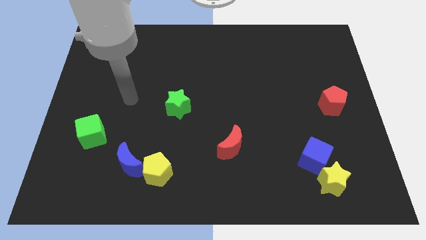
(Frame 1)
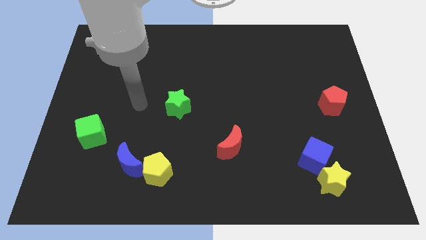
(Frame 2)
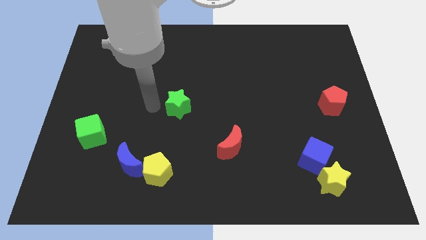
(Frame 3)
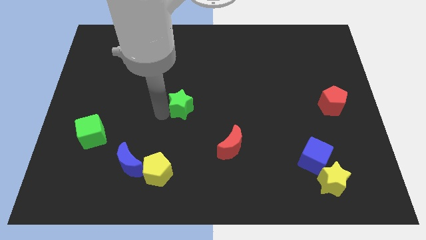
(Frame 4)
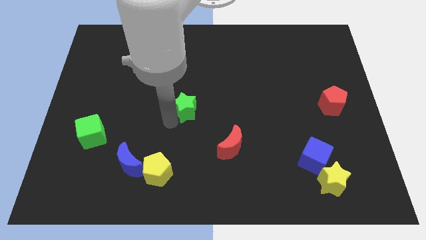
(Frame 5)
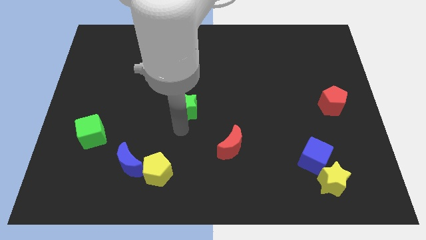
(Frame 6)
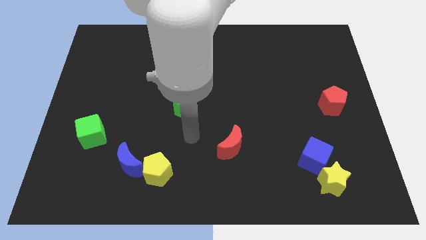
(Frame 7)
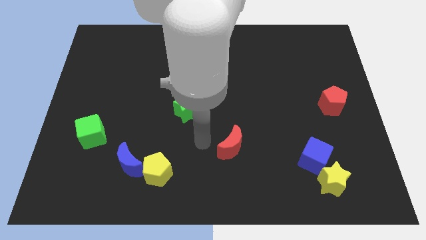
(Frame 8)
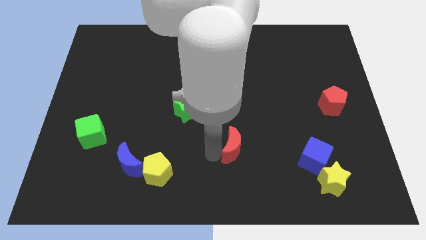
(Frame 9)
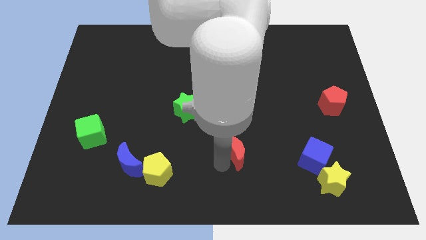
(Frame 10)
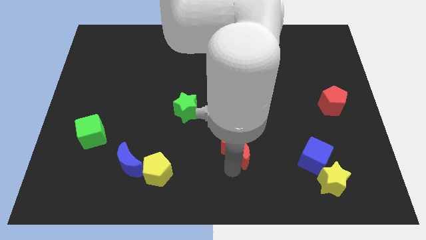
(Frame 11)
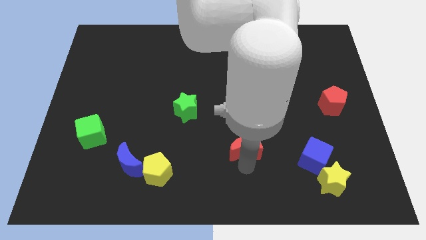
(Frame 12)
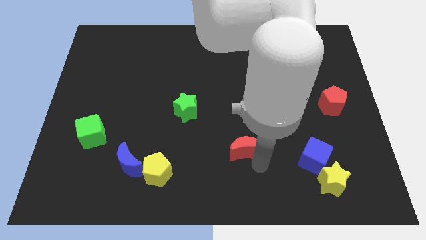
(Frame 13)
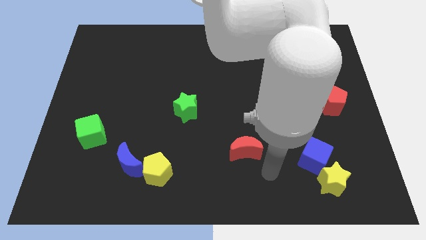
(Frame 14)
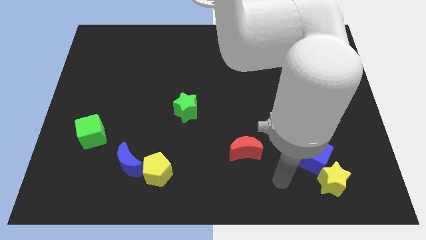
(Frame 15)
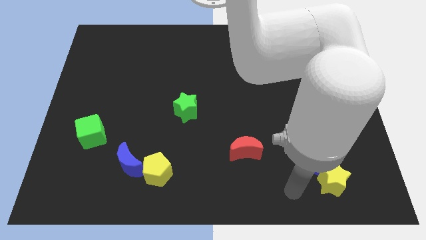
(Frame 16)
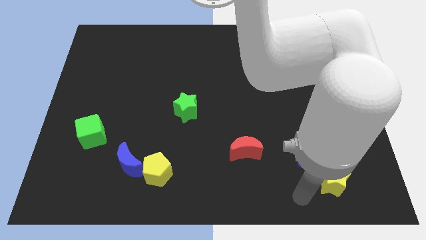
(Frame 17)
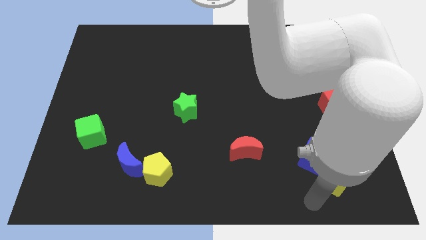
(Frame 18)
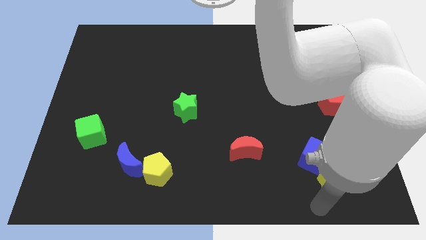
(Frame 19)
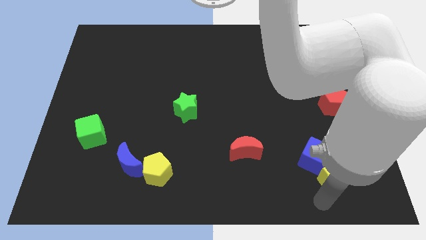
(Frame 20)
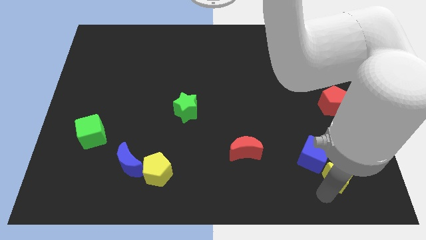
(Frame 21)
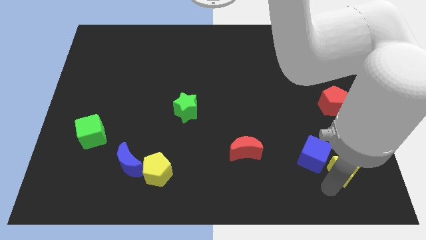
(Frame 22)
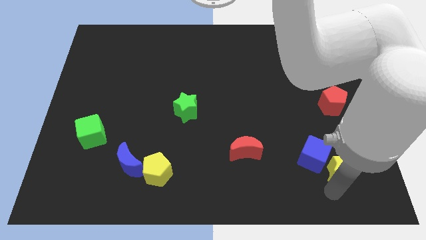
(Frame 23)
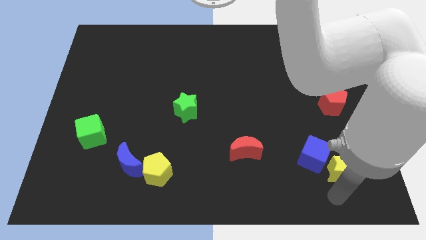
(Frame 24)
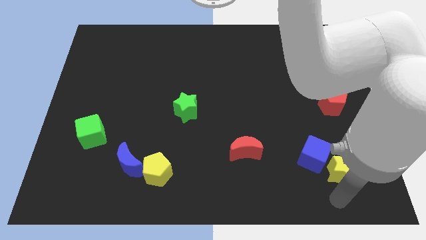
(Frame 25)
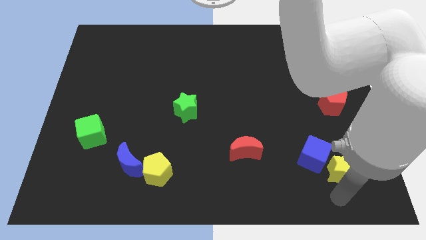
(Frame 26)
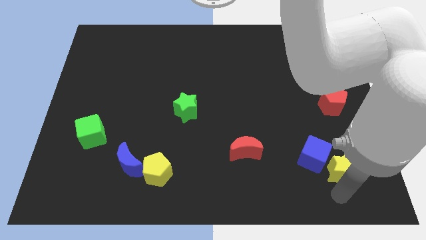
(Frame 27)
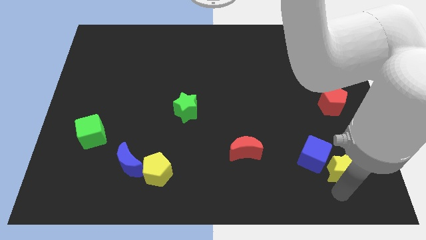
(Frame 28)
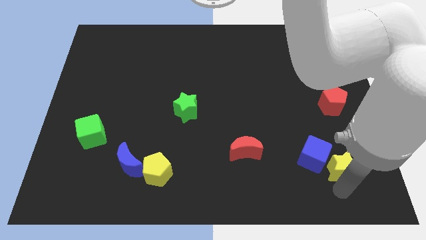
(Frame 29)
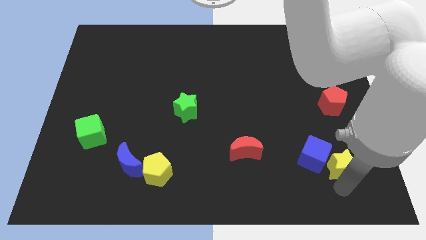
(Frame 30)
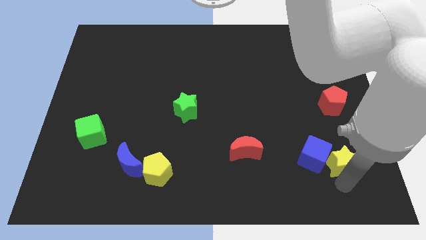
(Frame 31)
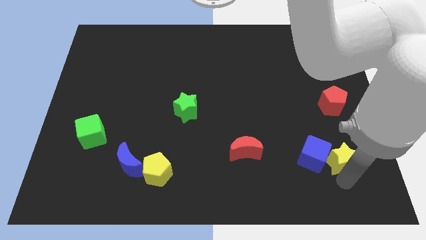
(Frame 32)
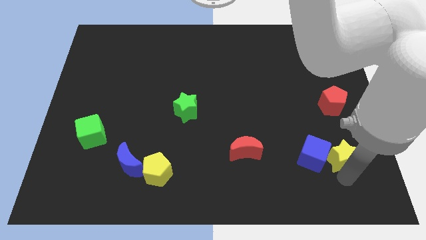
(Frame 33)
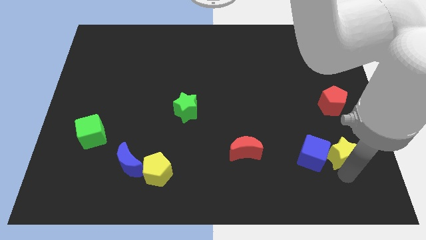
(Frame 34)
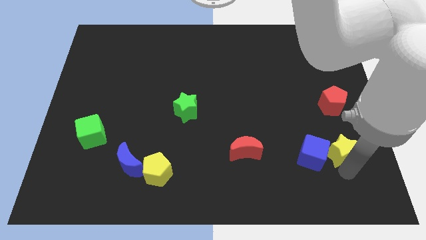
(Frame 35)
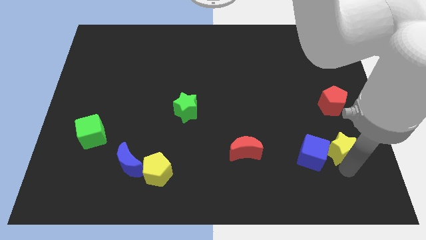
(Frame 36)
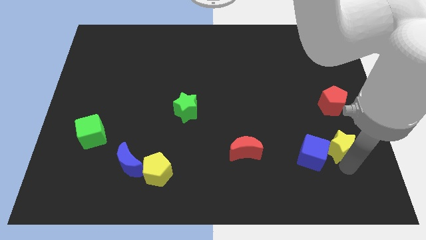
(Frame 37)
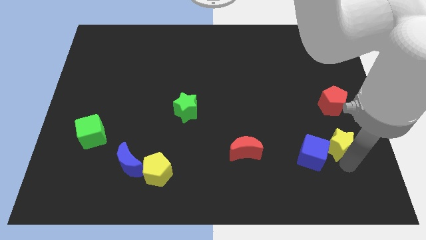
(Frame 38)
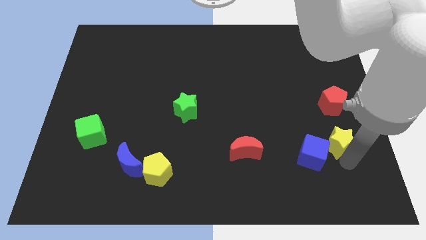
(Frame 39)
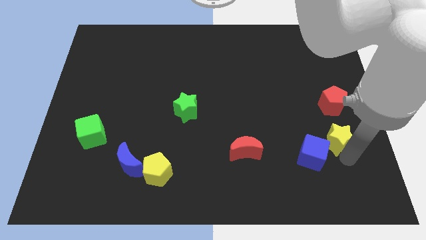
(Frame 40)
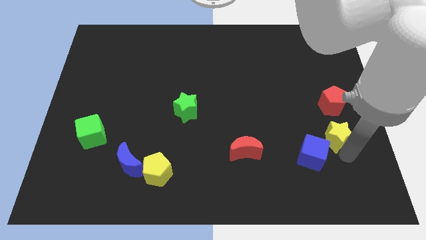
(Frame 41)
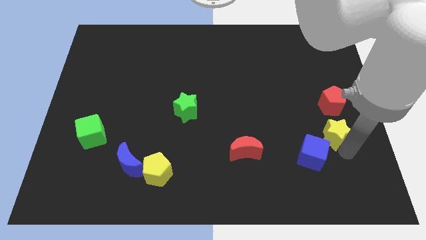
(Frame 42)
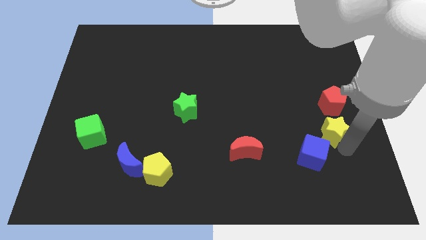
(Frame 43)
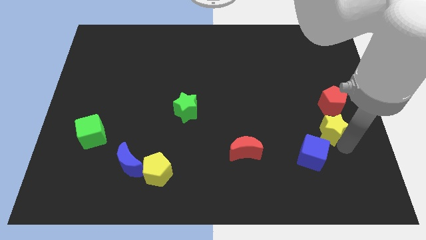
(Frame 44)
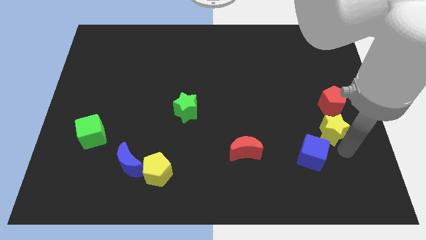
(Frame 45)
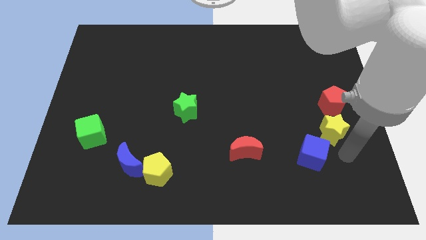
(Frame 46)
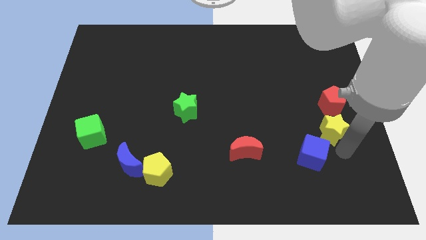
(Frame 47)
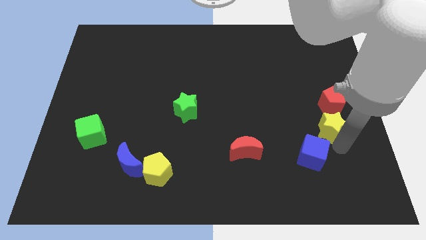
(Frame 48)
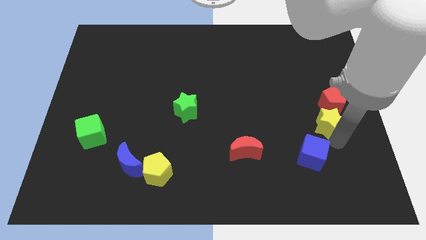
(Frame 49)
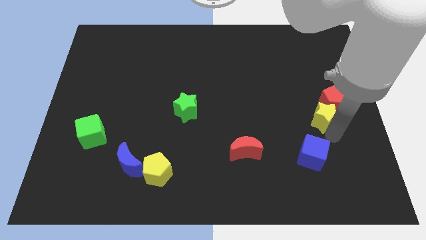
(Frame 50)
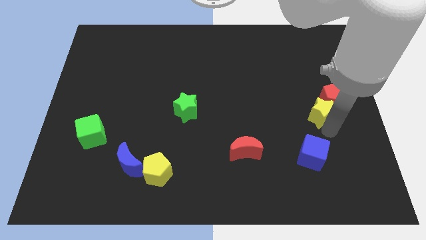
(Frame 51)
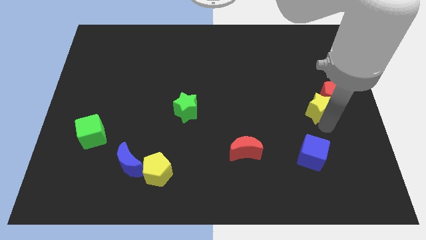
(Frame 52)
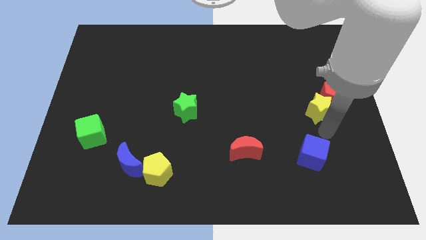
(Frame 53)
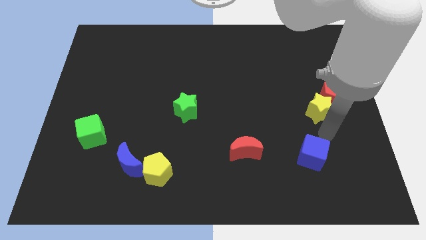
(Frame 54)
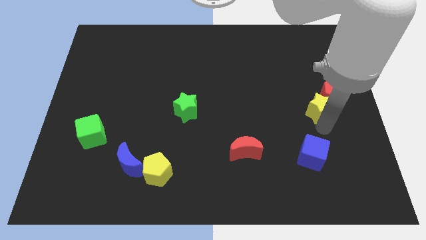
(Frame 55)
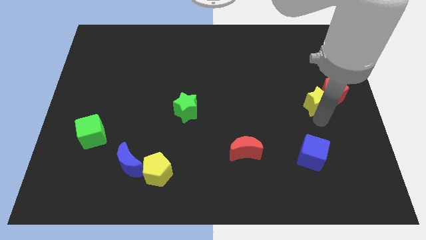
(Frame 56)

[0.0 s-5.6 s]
slide the yellow star upwards

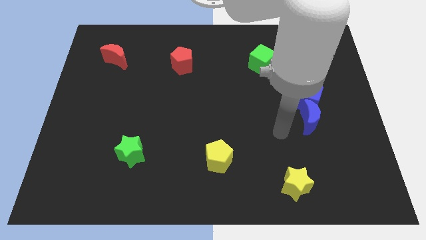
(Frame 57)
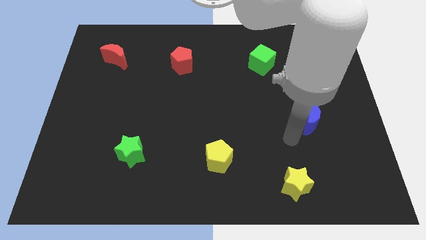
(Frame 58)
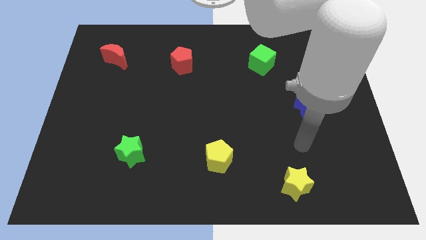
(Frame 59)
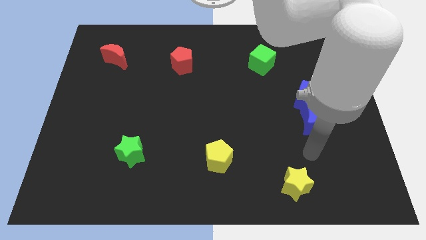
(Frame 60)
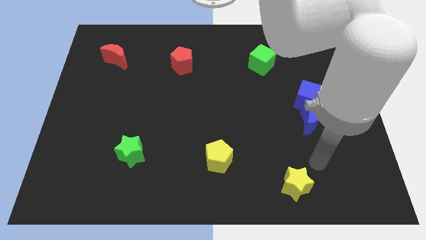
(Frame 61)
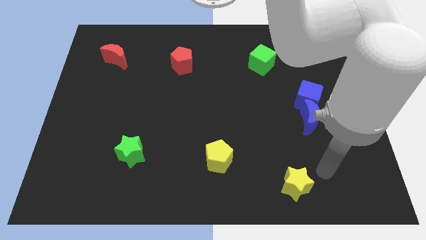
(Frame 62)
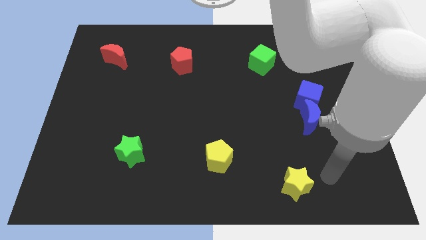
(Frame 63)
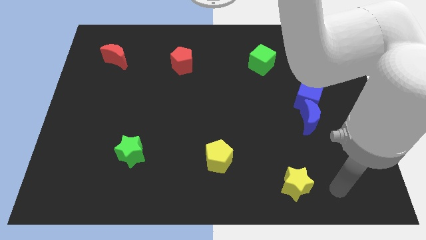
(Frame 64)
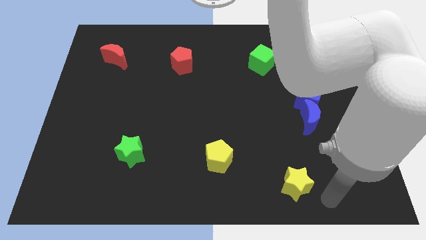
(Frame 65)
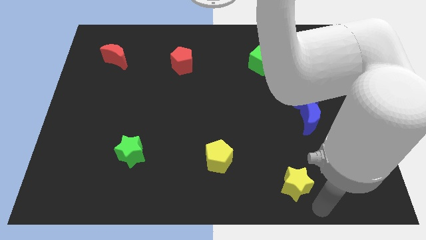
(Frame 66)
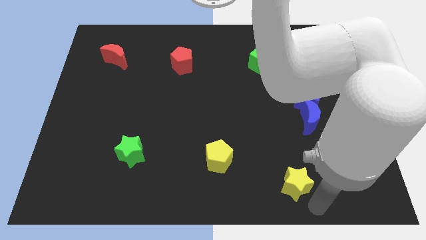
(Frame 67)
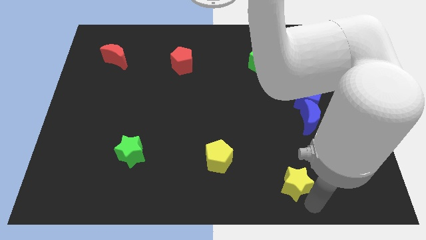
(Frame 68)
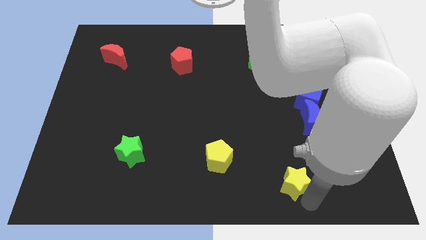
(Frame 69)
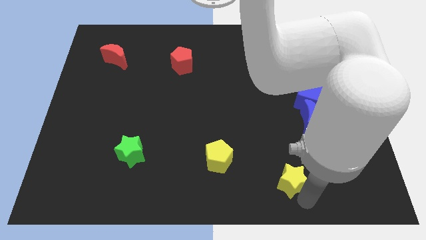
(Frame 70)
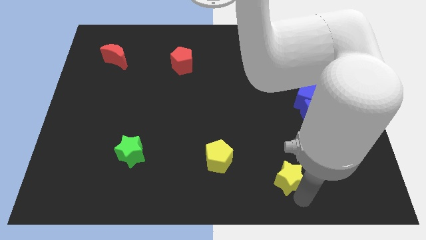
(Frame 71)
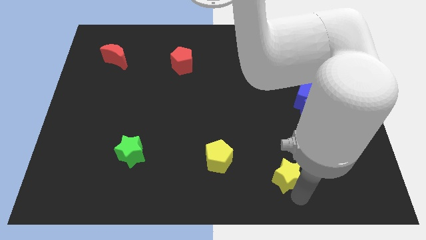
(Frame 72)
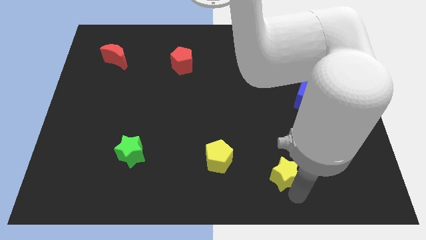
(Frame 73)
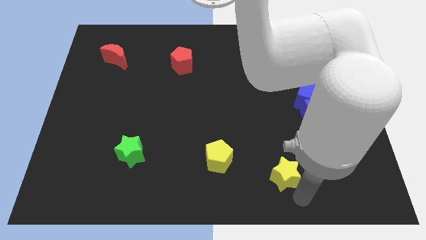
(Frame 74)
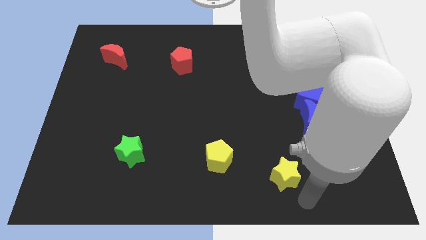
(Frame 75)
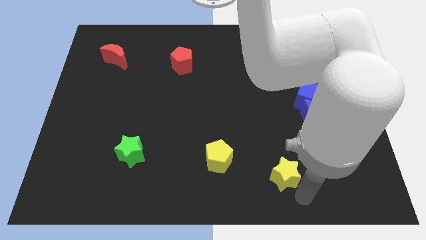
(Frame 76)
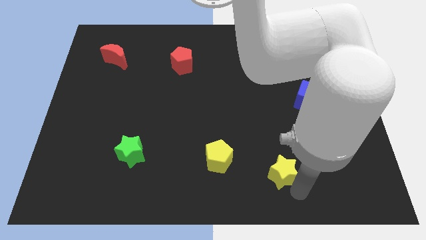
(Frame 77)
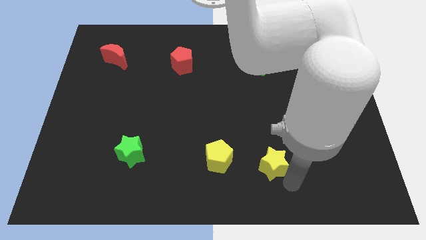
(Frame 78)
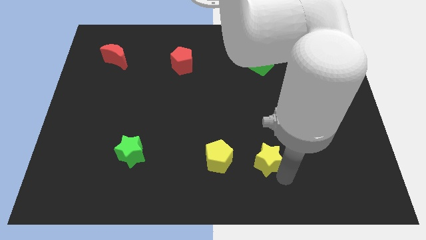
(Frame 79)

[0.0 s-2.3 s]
push the yellow star upwards and left diagonally a little bit
